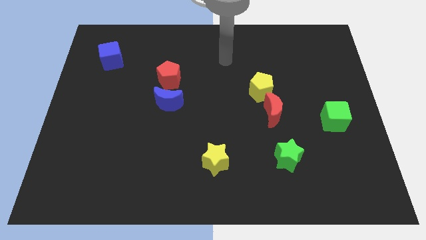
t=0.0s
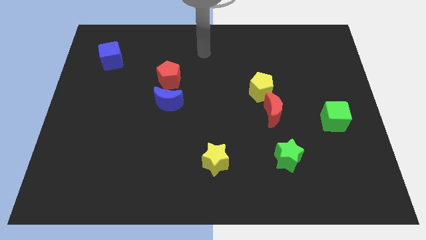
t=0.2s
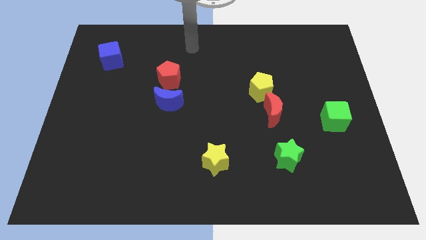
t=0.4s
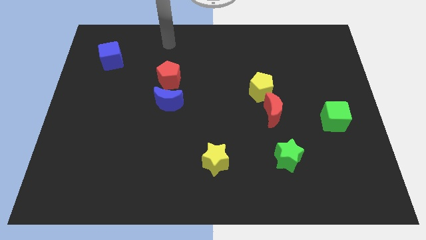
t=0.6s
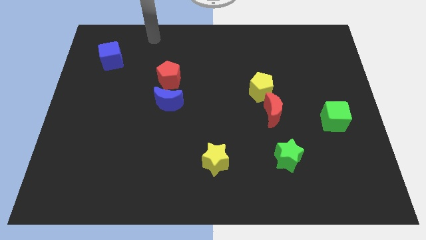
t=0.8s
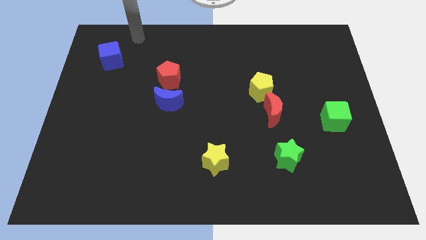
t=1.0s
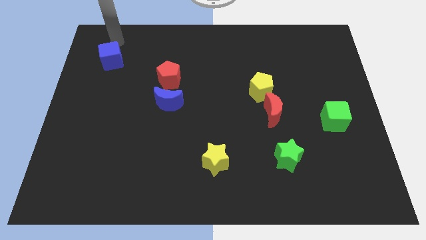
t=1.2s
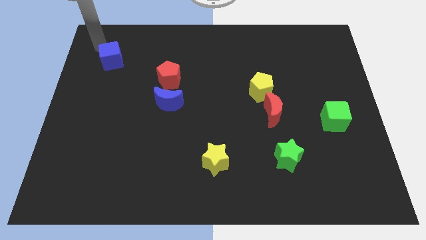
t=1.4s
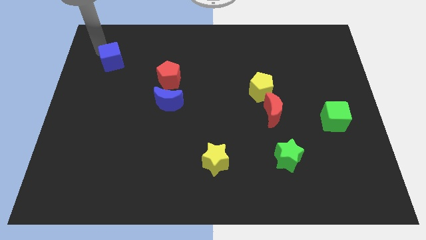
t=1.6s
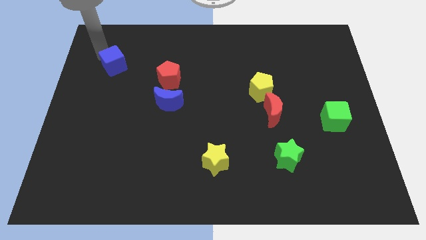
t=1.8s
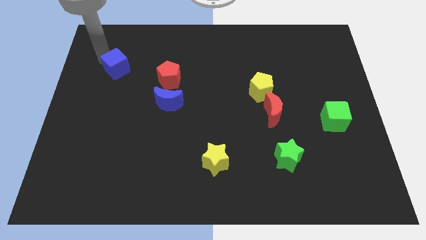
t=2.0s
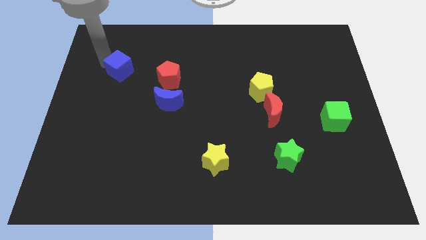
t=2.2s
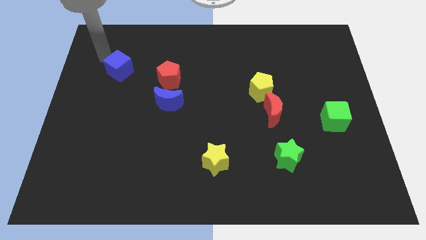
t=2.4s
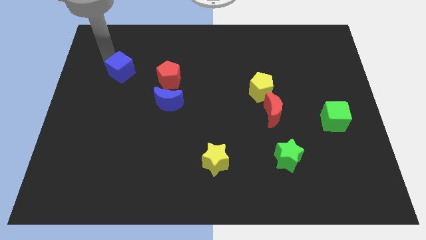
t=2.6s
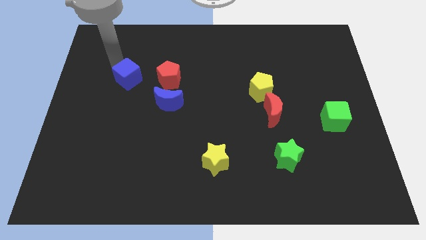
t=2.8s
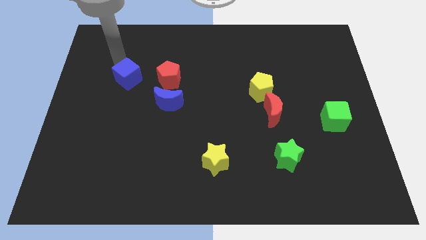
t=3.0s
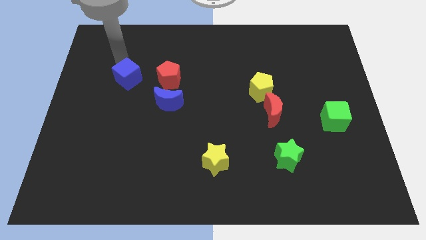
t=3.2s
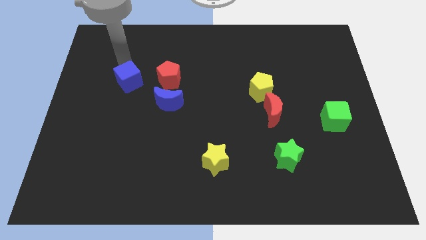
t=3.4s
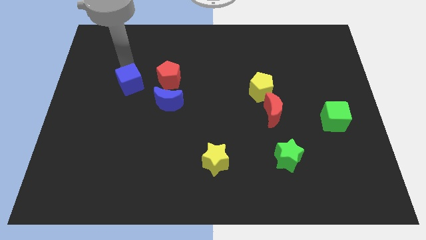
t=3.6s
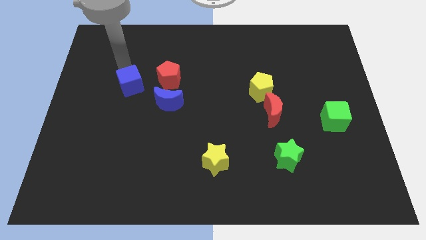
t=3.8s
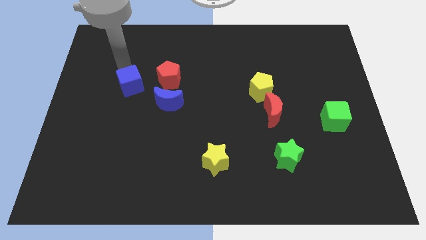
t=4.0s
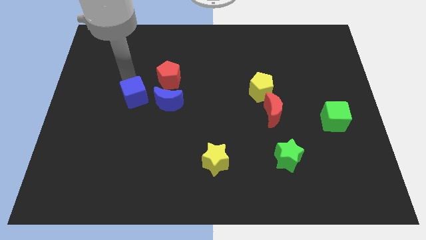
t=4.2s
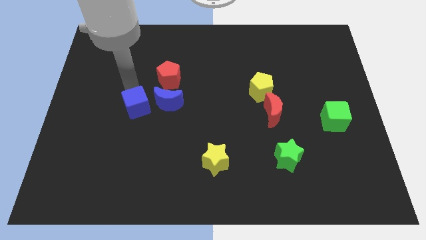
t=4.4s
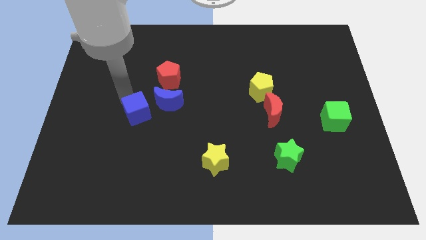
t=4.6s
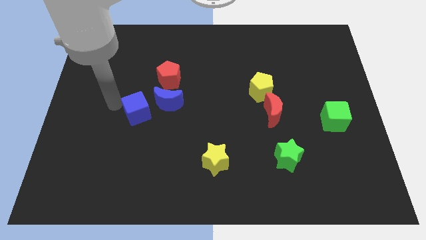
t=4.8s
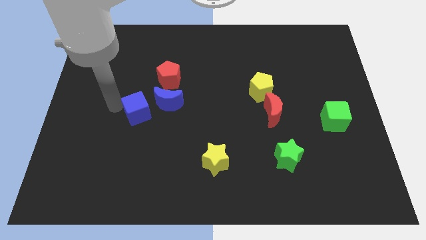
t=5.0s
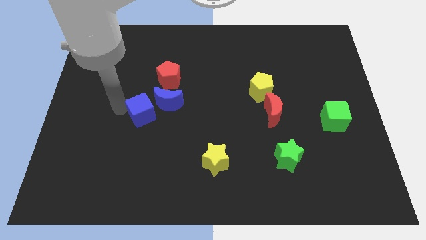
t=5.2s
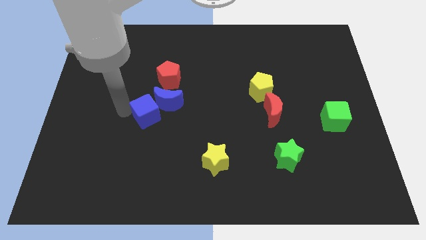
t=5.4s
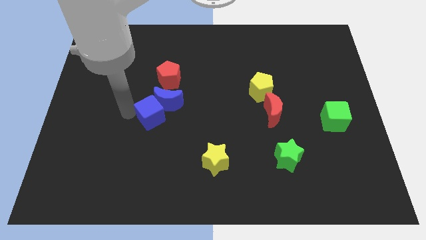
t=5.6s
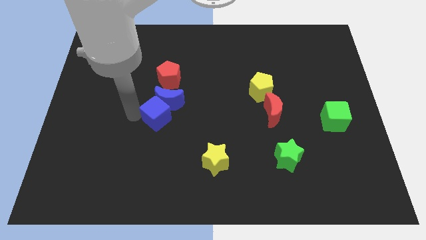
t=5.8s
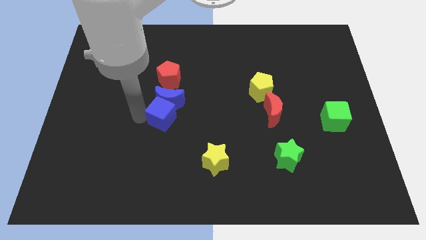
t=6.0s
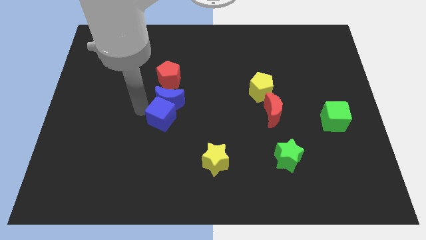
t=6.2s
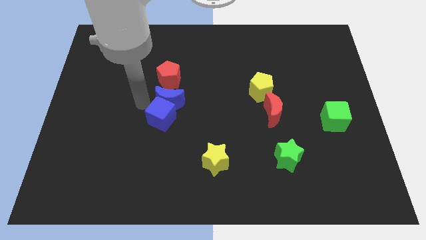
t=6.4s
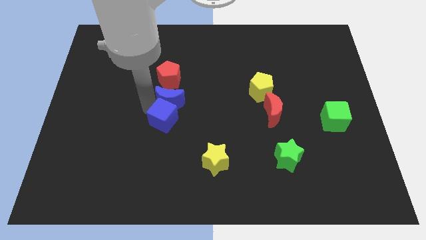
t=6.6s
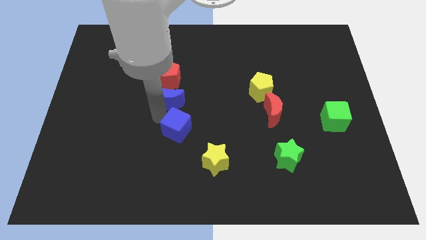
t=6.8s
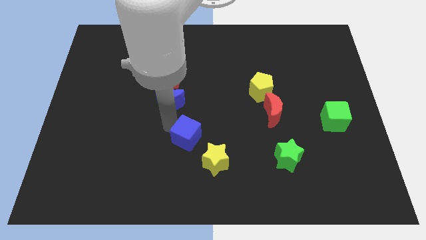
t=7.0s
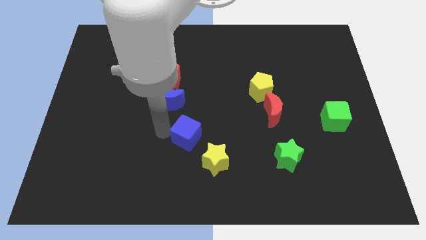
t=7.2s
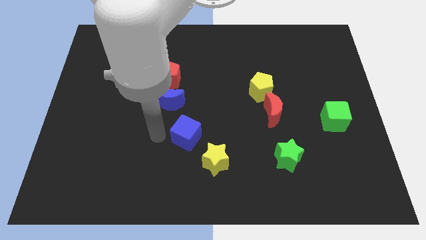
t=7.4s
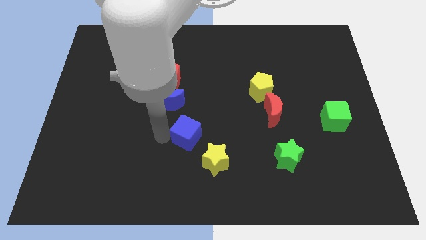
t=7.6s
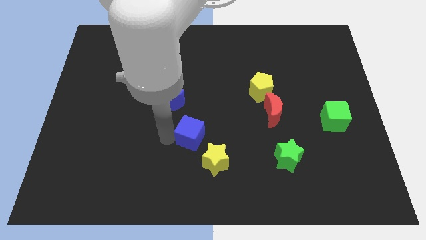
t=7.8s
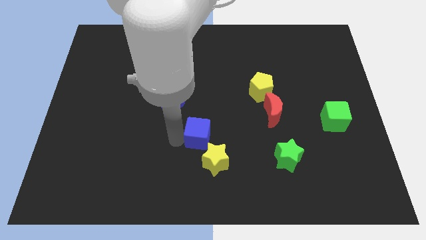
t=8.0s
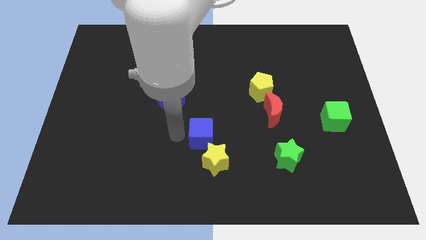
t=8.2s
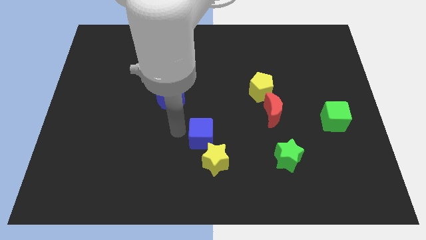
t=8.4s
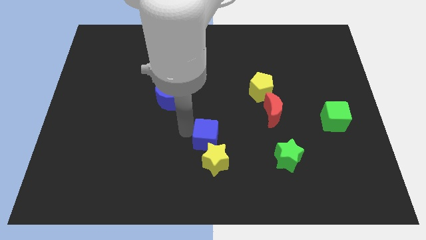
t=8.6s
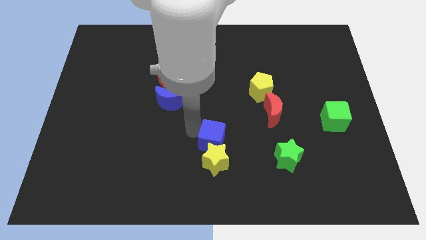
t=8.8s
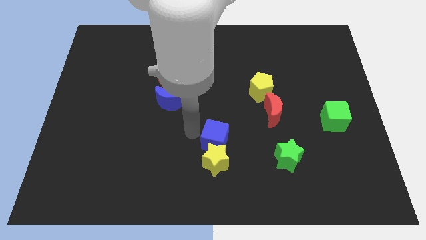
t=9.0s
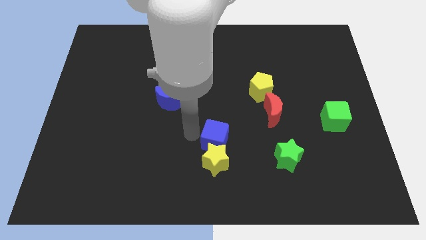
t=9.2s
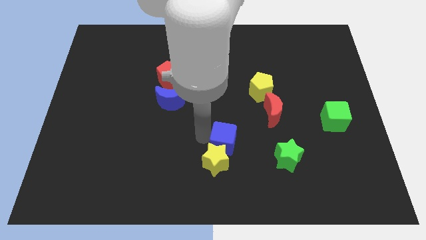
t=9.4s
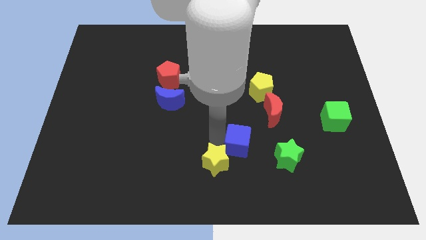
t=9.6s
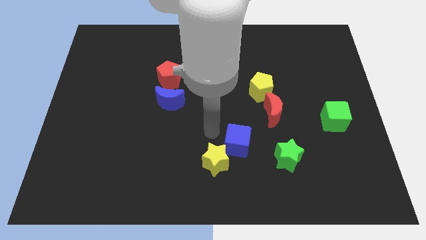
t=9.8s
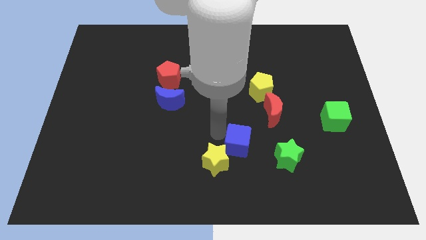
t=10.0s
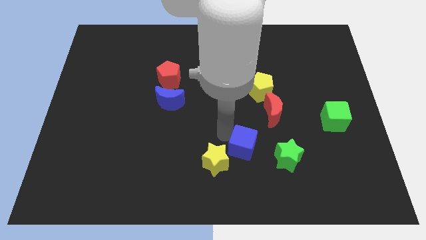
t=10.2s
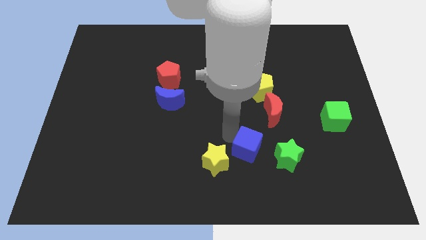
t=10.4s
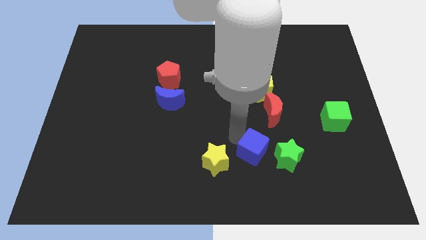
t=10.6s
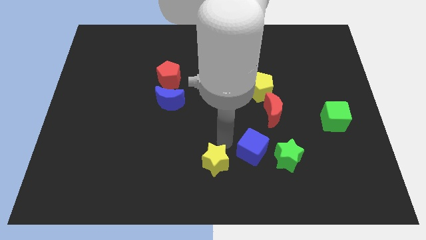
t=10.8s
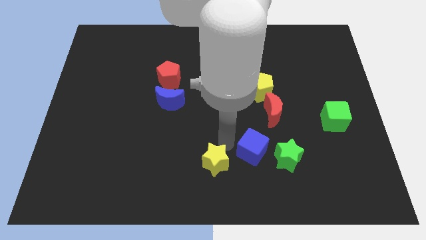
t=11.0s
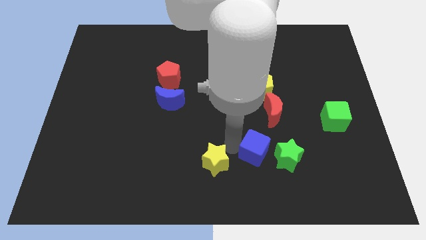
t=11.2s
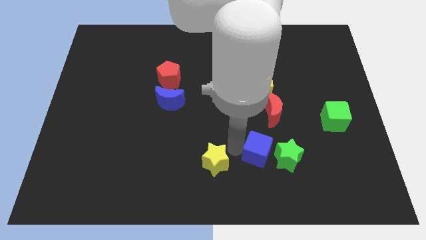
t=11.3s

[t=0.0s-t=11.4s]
push the blue cube to the green star

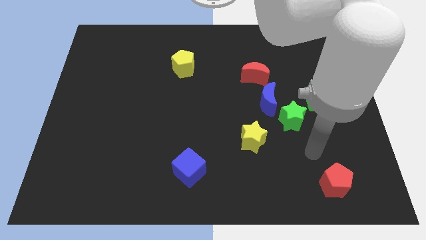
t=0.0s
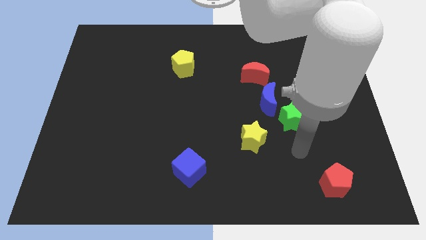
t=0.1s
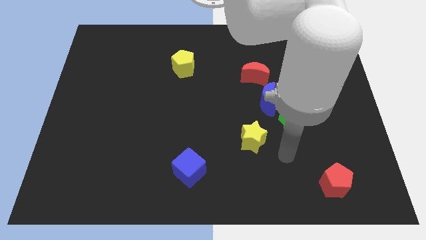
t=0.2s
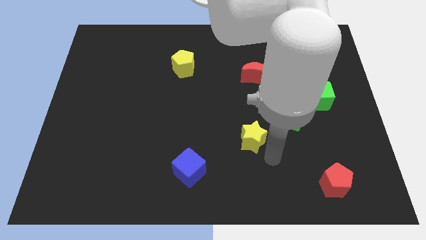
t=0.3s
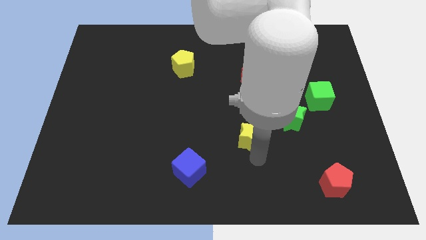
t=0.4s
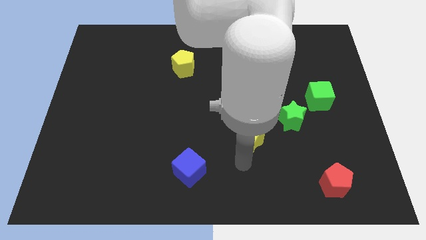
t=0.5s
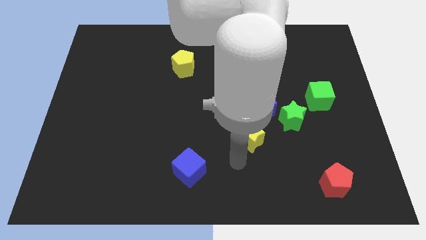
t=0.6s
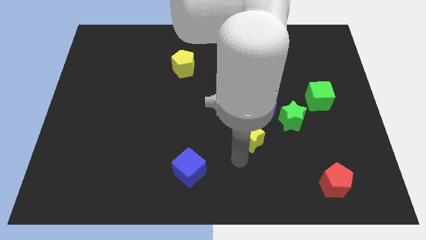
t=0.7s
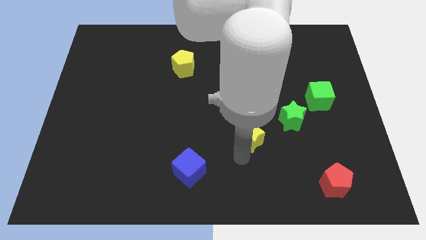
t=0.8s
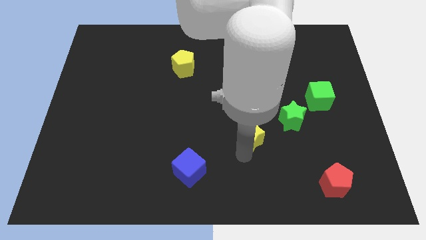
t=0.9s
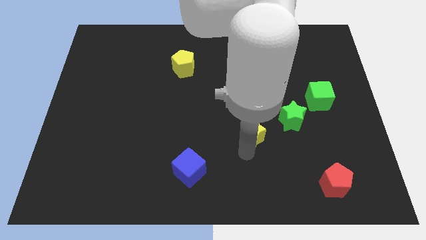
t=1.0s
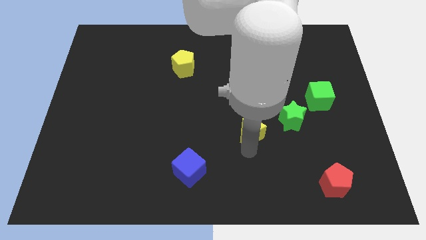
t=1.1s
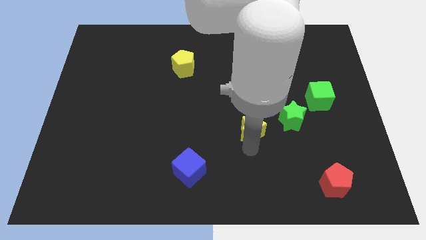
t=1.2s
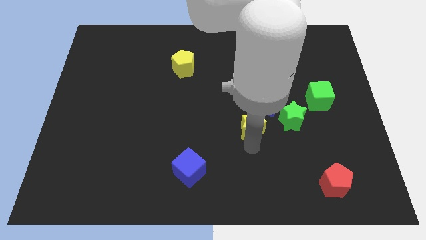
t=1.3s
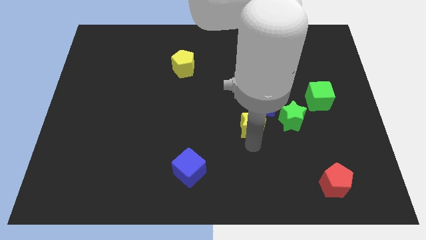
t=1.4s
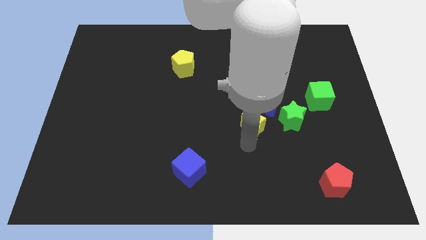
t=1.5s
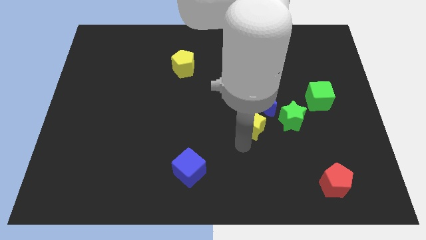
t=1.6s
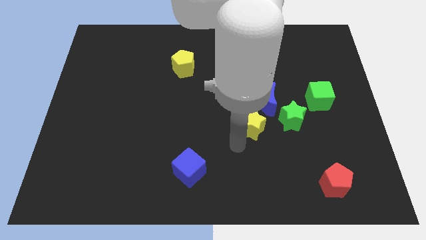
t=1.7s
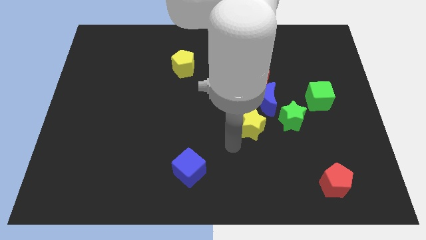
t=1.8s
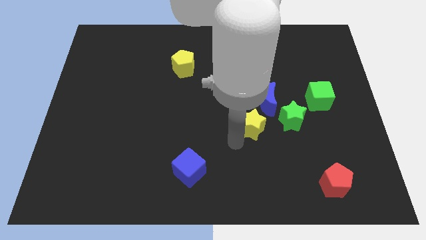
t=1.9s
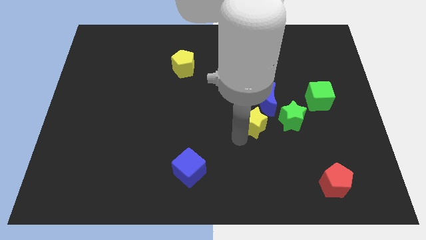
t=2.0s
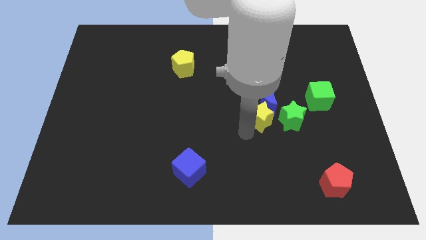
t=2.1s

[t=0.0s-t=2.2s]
slide the yellow star next to the blue moon
